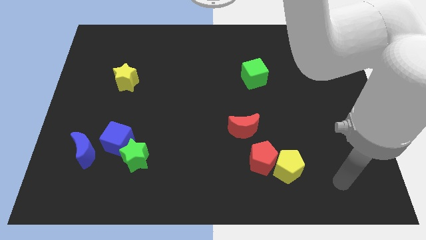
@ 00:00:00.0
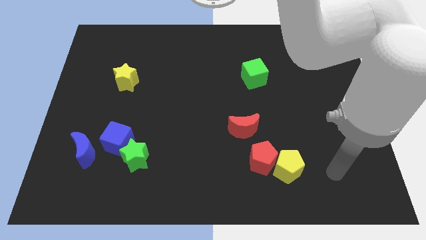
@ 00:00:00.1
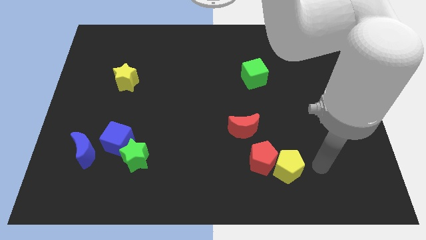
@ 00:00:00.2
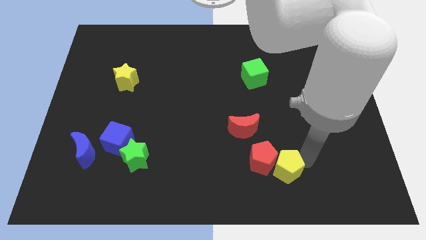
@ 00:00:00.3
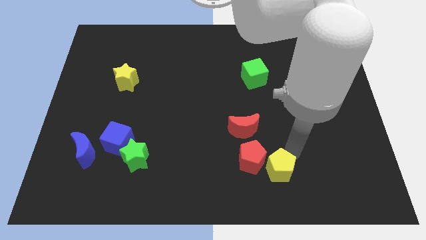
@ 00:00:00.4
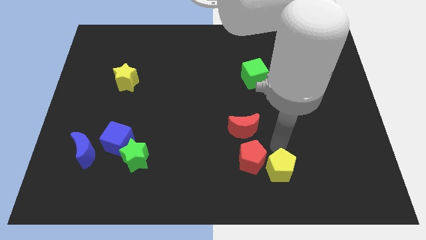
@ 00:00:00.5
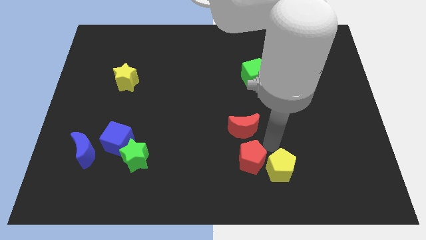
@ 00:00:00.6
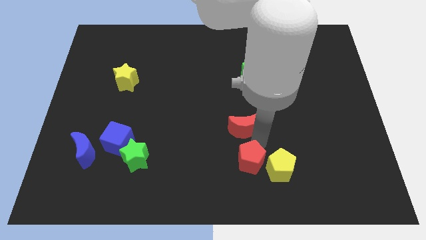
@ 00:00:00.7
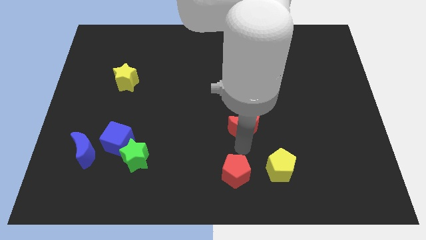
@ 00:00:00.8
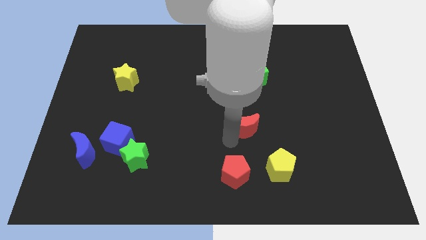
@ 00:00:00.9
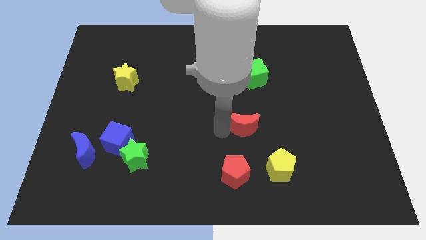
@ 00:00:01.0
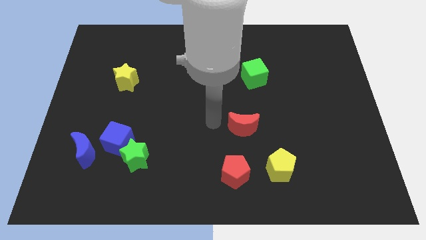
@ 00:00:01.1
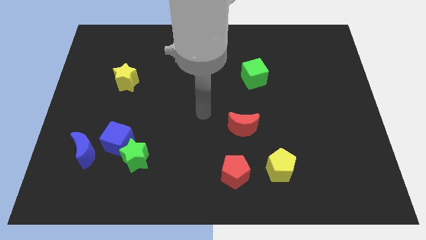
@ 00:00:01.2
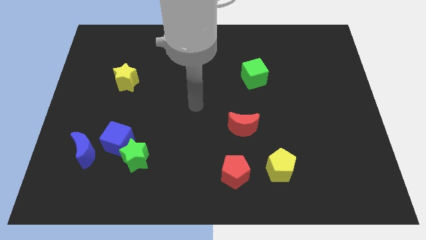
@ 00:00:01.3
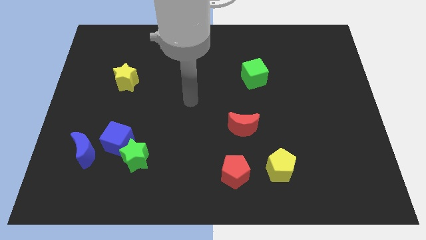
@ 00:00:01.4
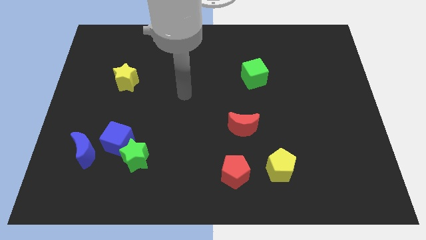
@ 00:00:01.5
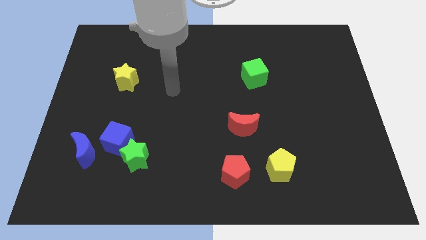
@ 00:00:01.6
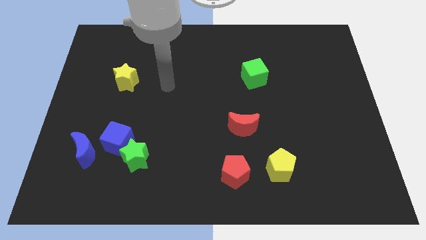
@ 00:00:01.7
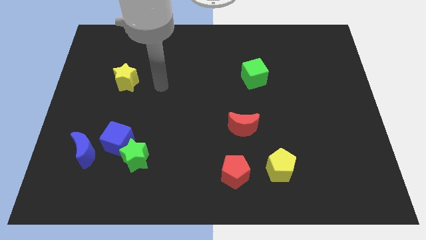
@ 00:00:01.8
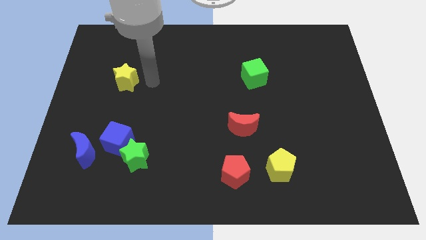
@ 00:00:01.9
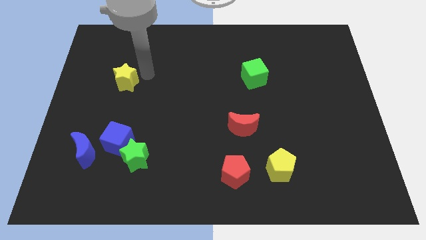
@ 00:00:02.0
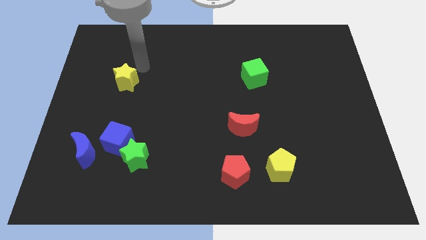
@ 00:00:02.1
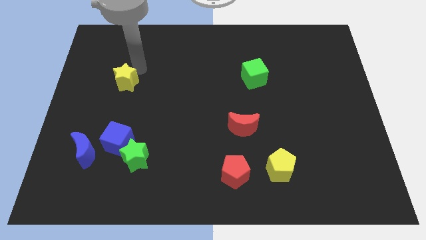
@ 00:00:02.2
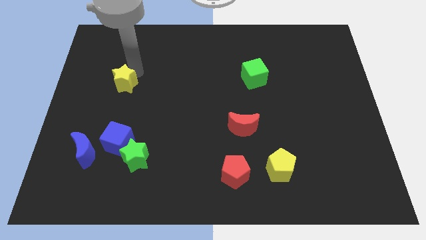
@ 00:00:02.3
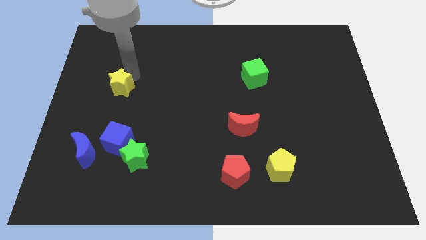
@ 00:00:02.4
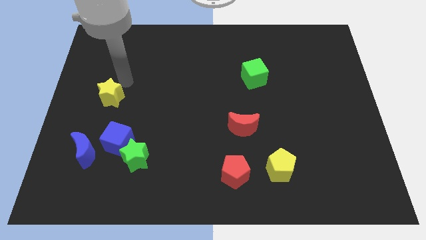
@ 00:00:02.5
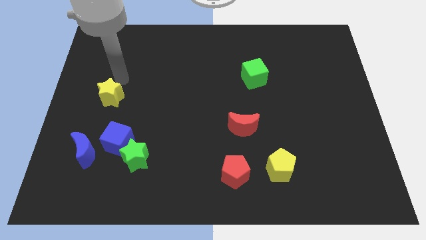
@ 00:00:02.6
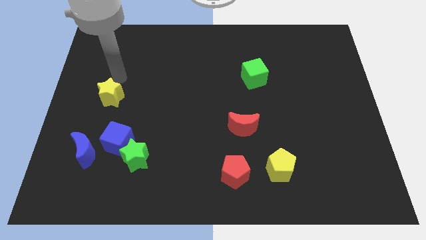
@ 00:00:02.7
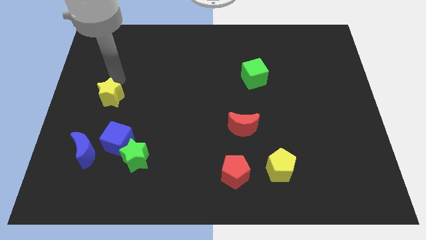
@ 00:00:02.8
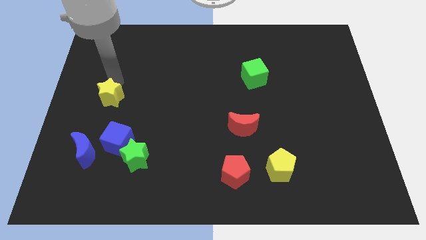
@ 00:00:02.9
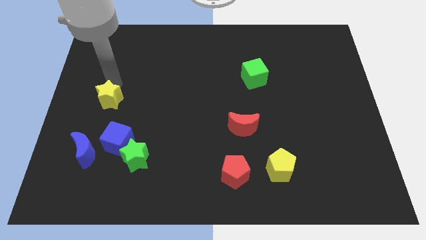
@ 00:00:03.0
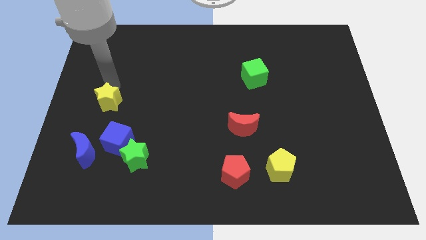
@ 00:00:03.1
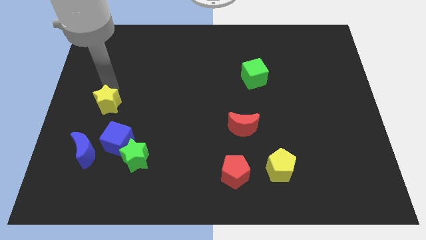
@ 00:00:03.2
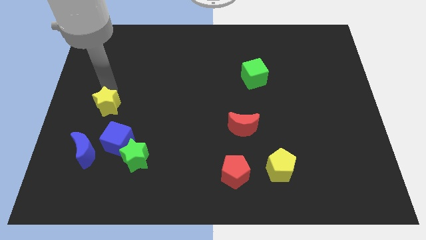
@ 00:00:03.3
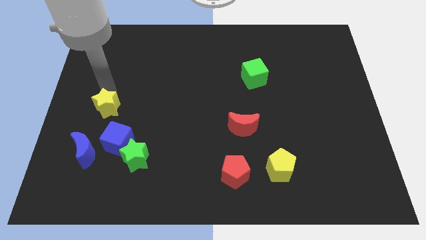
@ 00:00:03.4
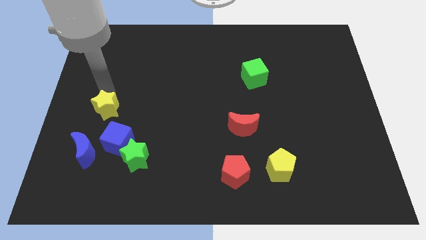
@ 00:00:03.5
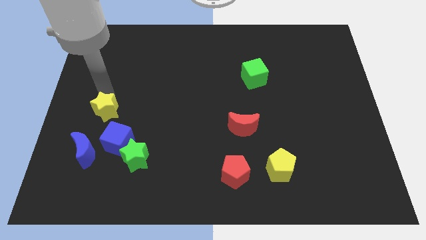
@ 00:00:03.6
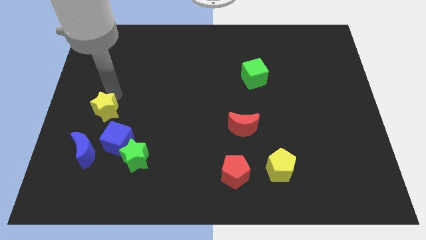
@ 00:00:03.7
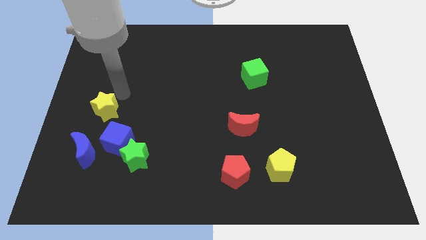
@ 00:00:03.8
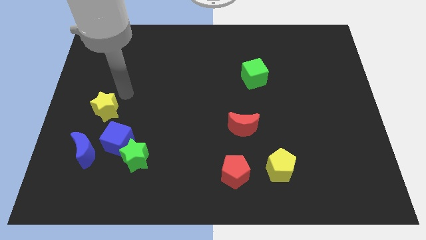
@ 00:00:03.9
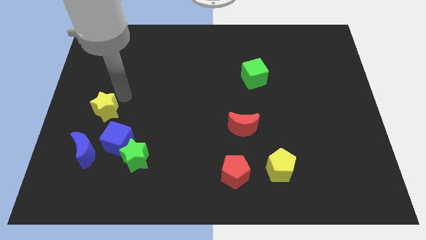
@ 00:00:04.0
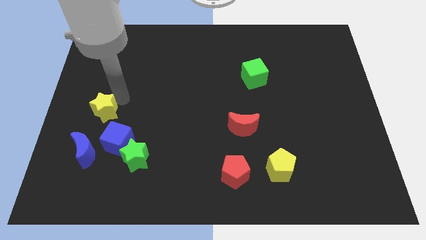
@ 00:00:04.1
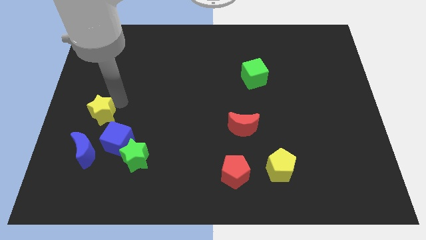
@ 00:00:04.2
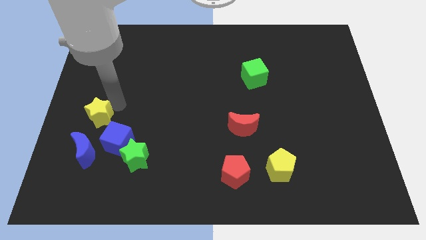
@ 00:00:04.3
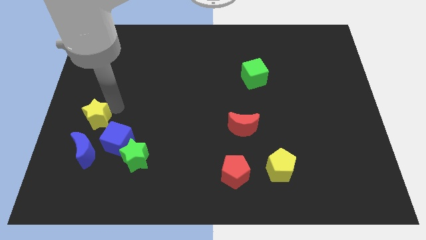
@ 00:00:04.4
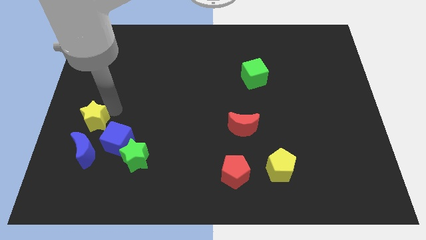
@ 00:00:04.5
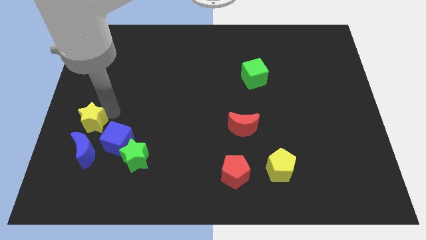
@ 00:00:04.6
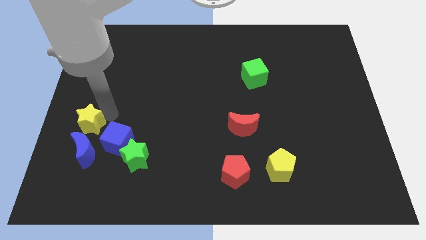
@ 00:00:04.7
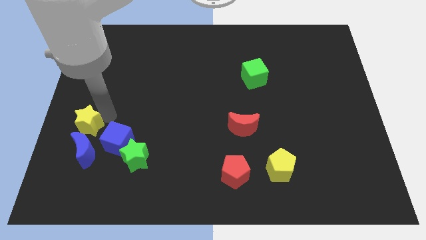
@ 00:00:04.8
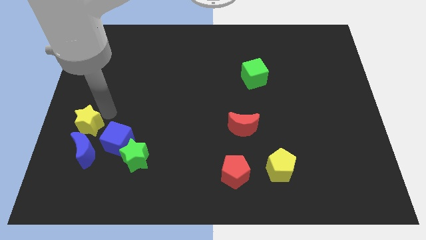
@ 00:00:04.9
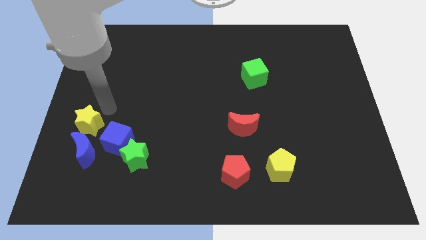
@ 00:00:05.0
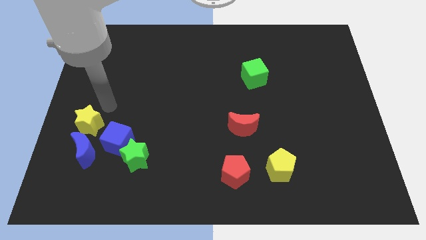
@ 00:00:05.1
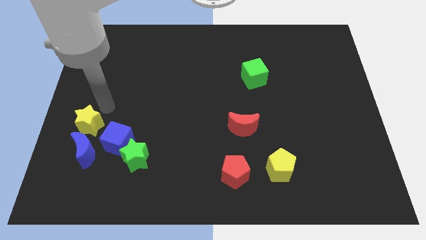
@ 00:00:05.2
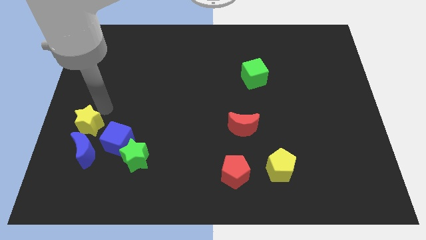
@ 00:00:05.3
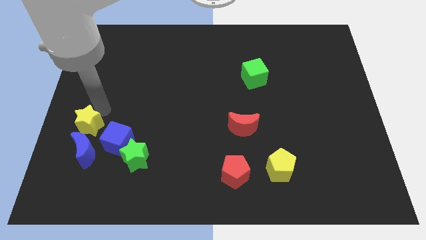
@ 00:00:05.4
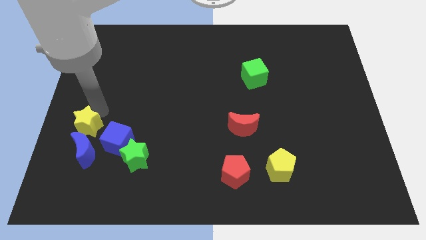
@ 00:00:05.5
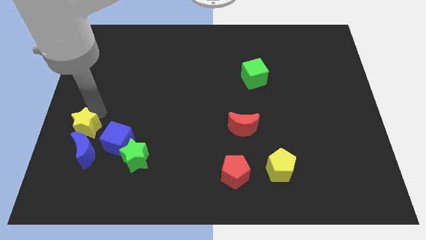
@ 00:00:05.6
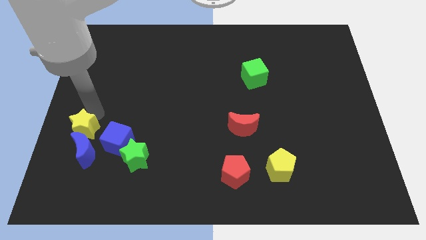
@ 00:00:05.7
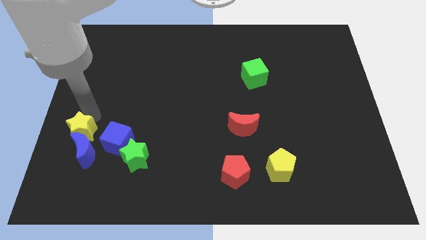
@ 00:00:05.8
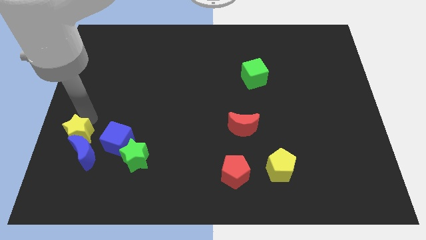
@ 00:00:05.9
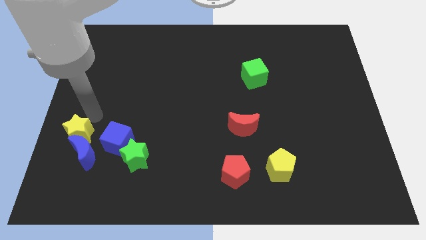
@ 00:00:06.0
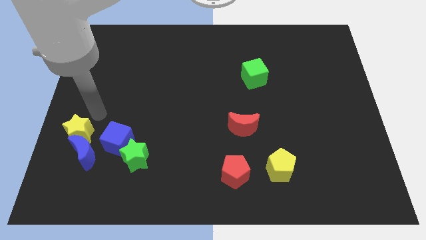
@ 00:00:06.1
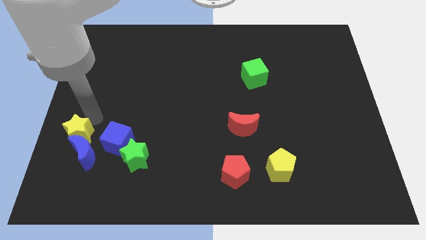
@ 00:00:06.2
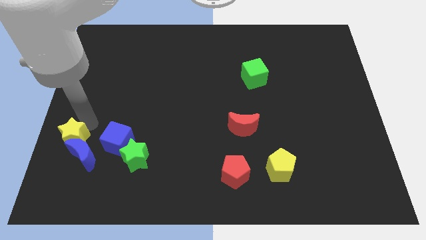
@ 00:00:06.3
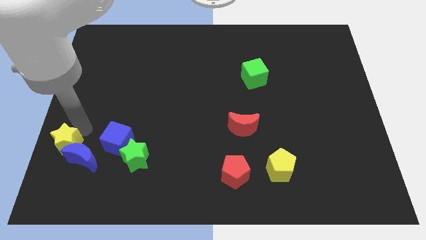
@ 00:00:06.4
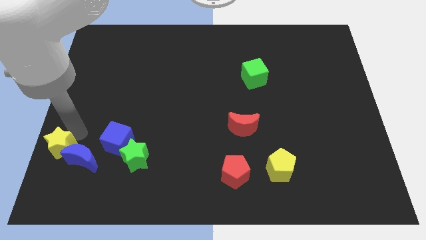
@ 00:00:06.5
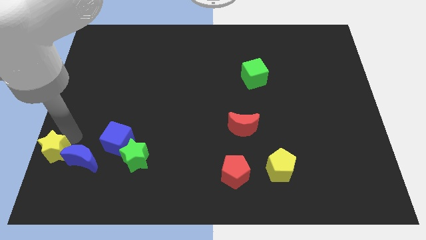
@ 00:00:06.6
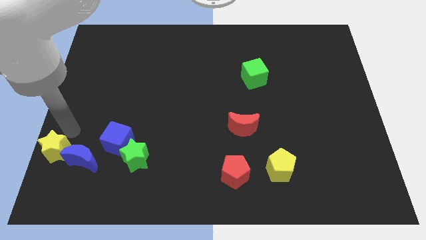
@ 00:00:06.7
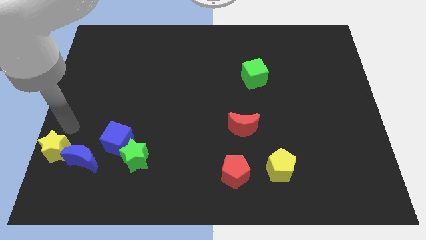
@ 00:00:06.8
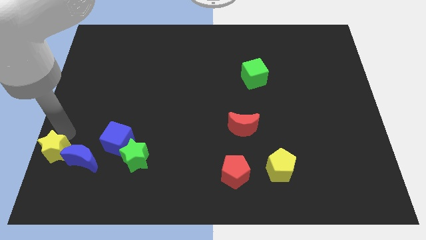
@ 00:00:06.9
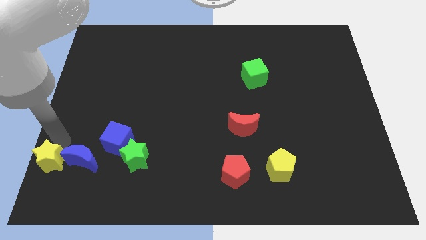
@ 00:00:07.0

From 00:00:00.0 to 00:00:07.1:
put the yellow star to the bottom left of the board
